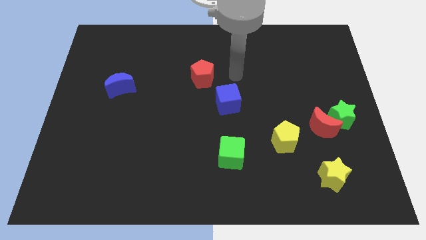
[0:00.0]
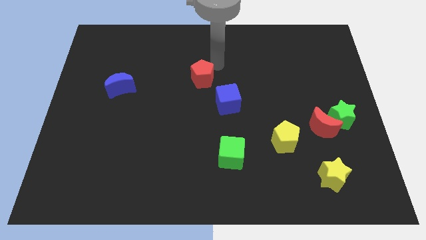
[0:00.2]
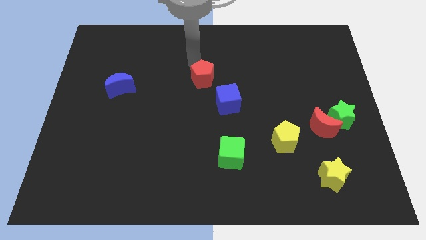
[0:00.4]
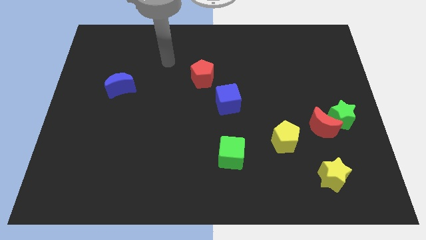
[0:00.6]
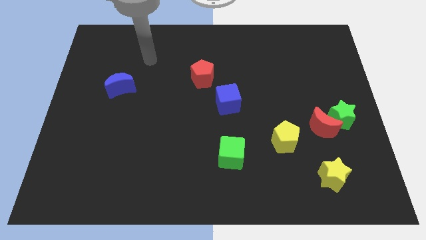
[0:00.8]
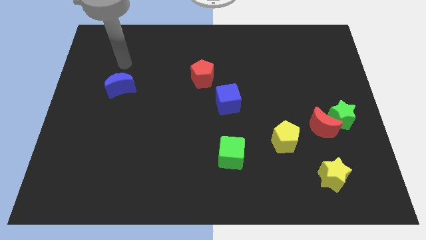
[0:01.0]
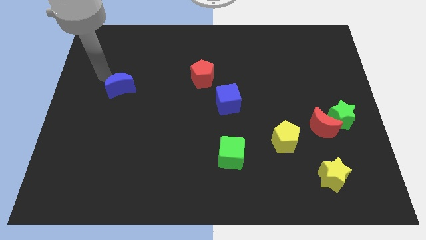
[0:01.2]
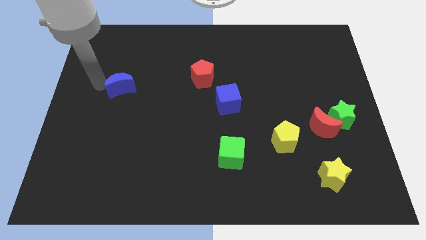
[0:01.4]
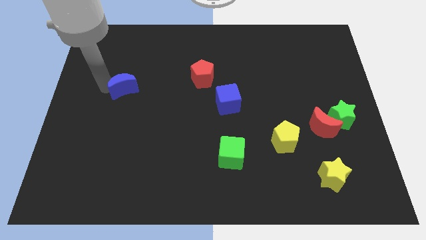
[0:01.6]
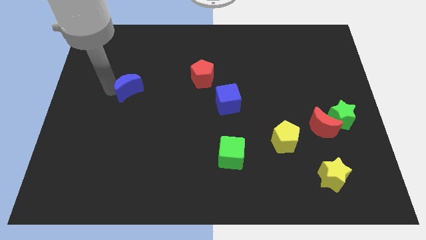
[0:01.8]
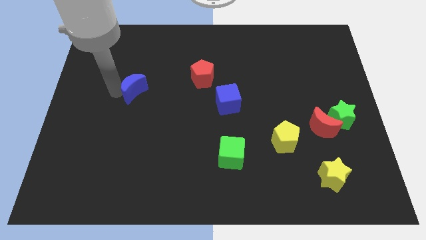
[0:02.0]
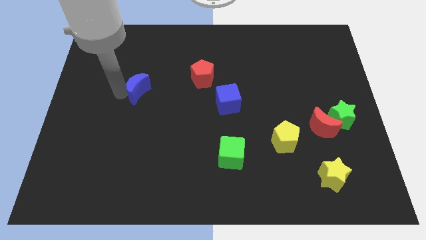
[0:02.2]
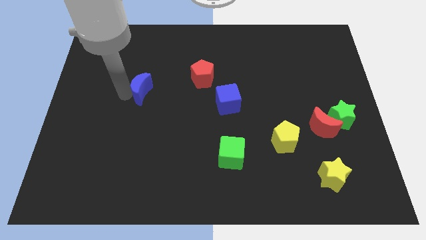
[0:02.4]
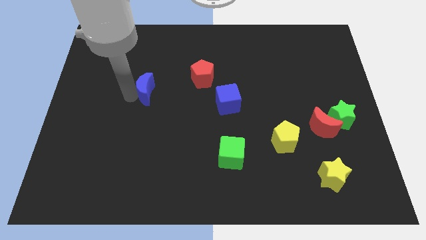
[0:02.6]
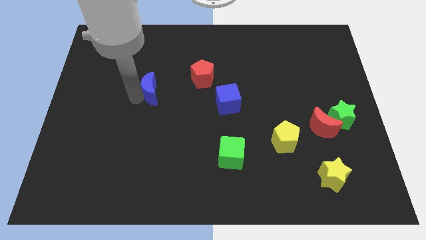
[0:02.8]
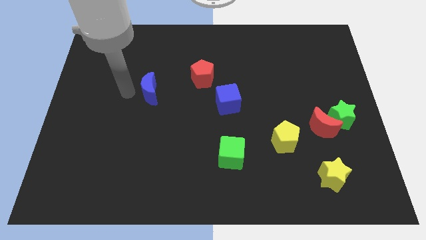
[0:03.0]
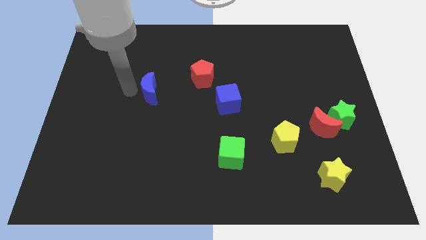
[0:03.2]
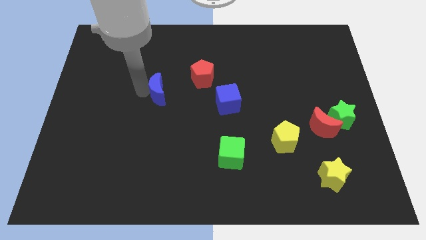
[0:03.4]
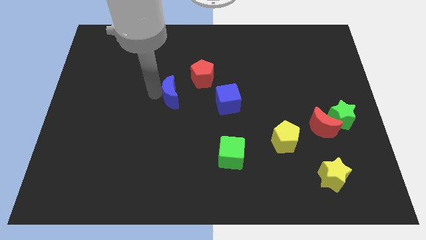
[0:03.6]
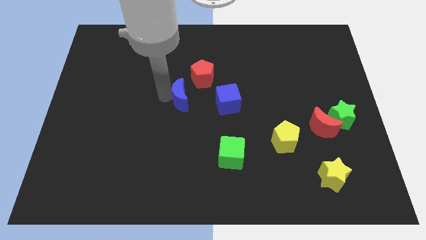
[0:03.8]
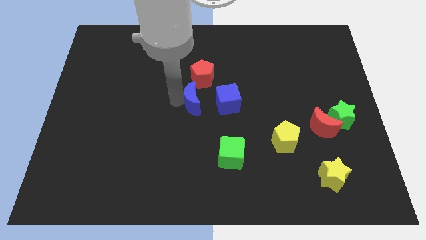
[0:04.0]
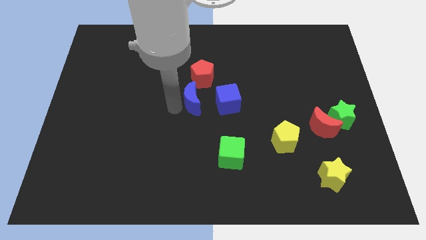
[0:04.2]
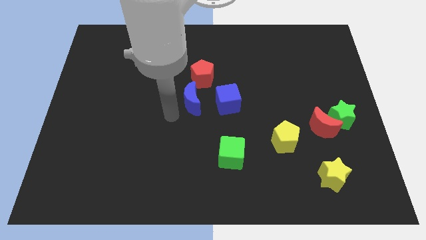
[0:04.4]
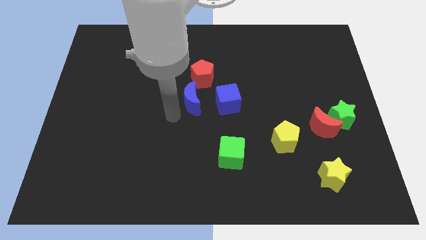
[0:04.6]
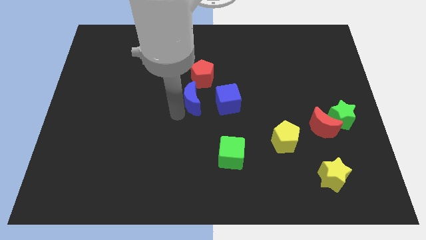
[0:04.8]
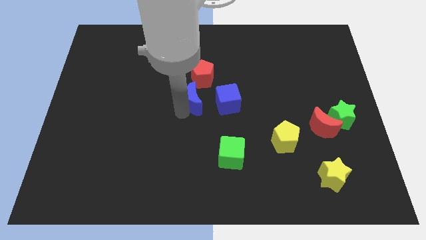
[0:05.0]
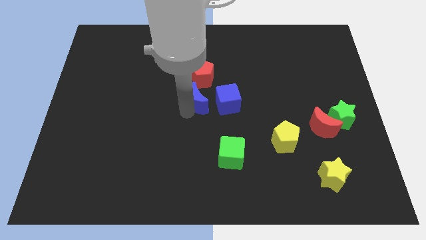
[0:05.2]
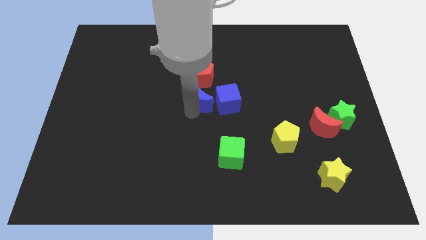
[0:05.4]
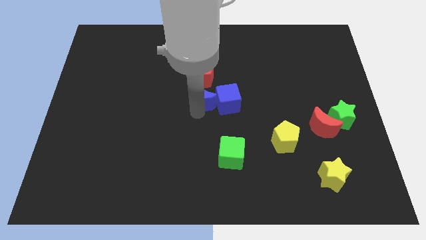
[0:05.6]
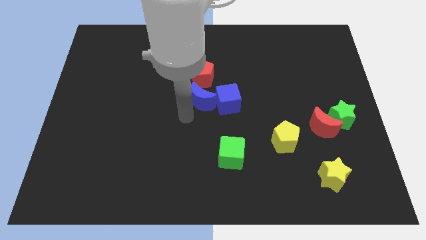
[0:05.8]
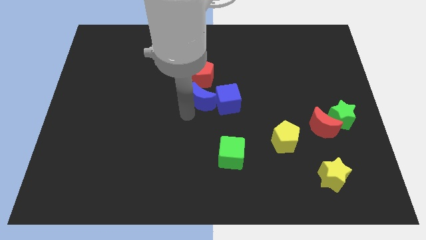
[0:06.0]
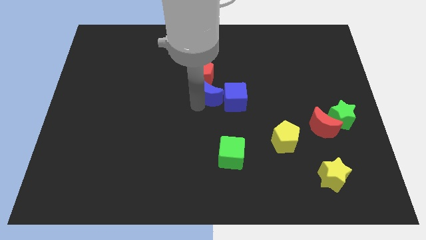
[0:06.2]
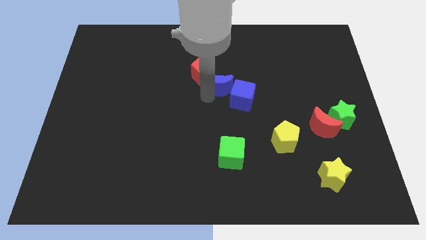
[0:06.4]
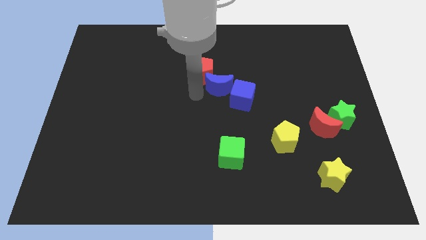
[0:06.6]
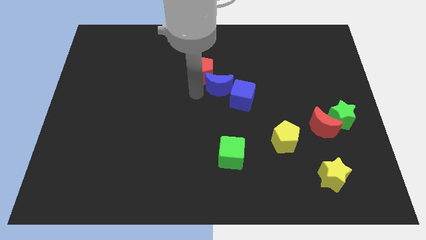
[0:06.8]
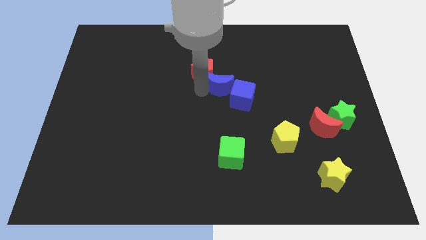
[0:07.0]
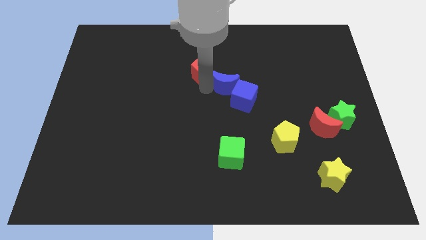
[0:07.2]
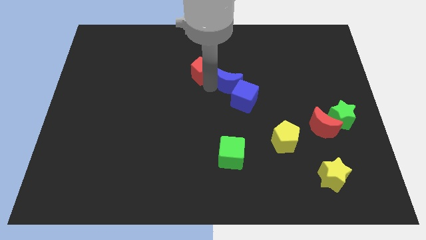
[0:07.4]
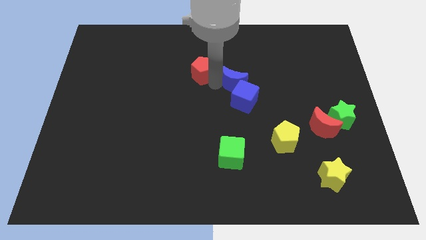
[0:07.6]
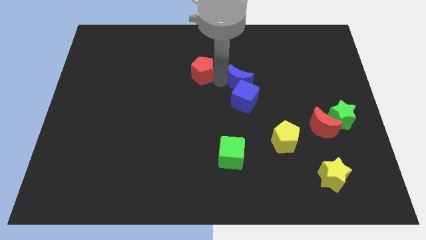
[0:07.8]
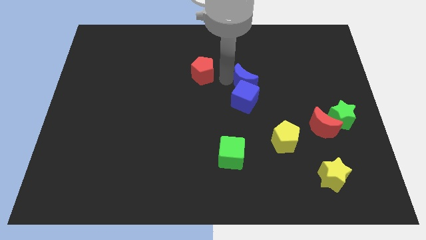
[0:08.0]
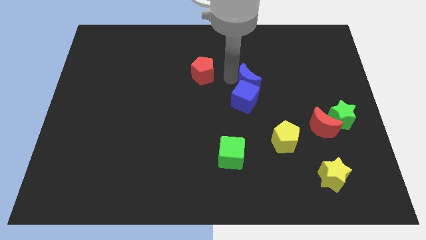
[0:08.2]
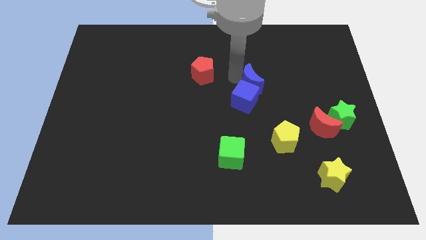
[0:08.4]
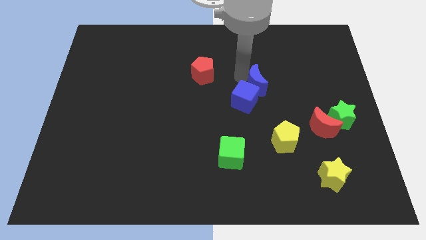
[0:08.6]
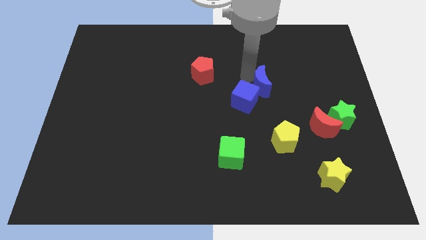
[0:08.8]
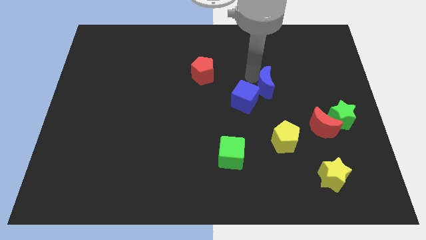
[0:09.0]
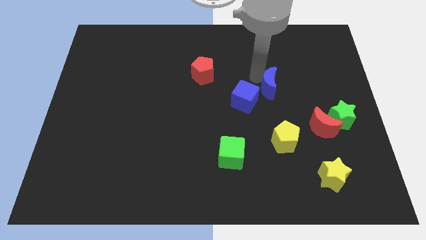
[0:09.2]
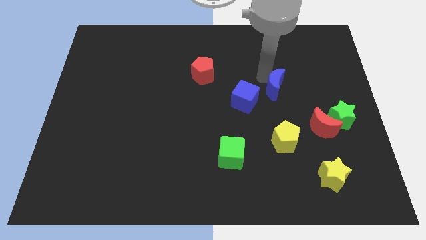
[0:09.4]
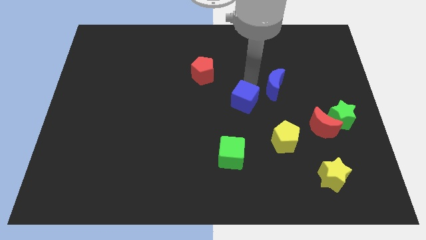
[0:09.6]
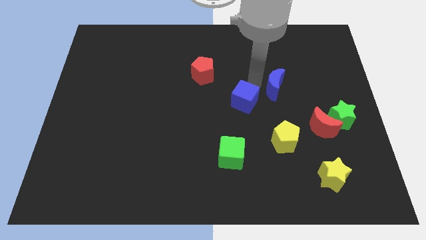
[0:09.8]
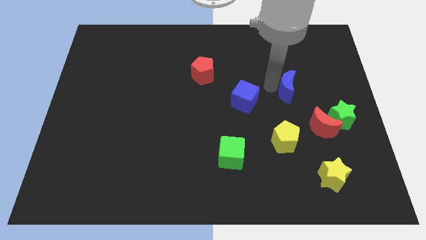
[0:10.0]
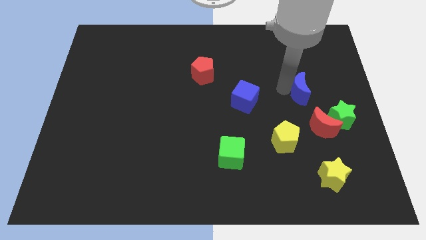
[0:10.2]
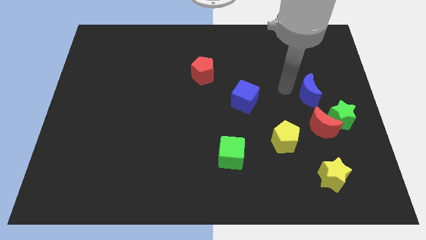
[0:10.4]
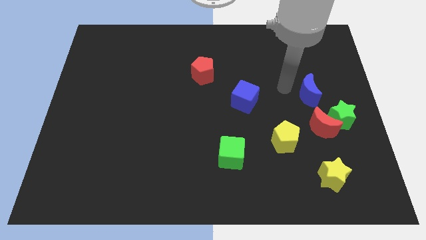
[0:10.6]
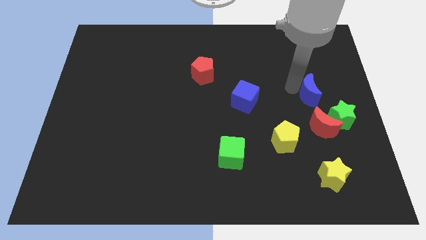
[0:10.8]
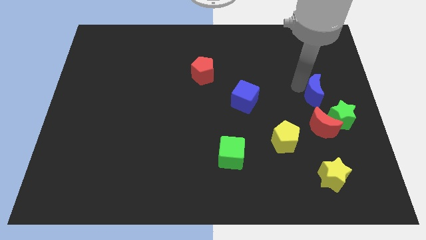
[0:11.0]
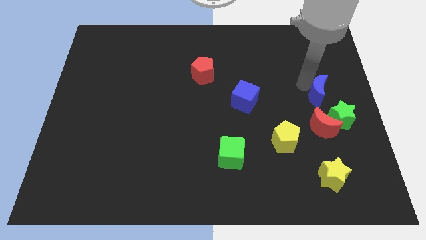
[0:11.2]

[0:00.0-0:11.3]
put the blue moon to the right side
